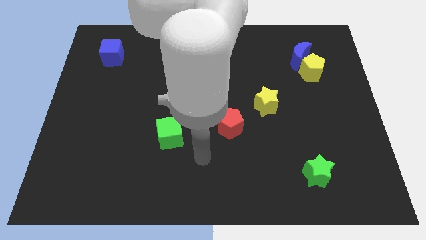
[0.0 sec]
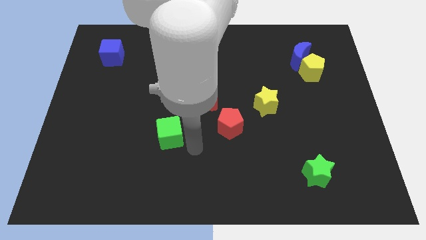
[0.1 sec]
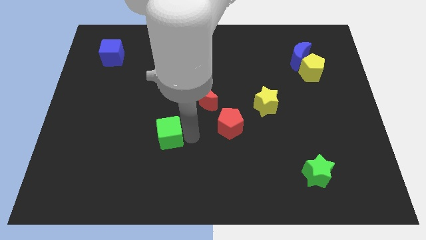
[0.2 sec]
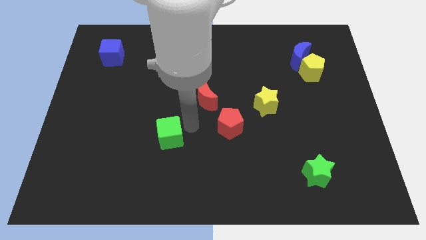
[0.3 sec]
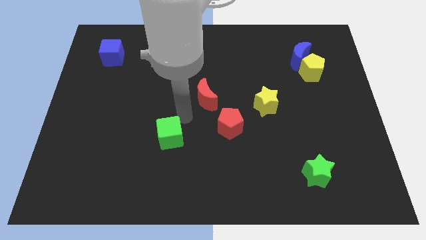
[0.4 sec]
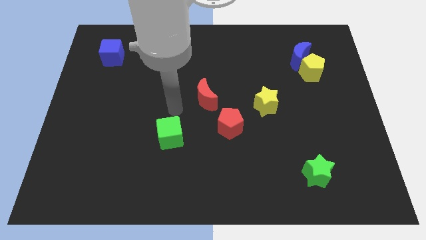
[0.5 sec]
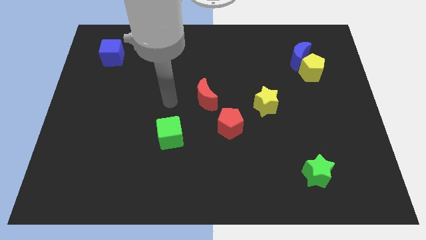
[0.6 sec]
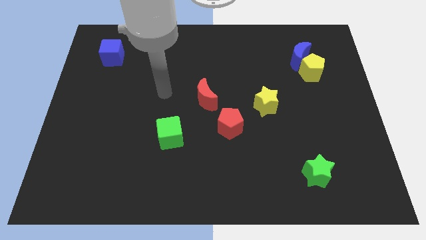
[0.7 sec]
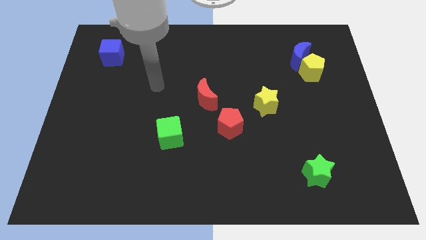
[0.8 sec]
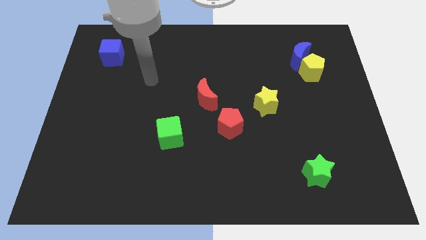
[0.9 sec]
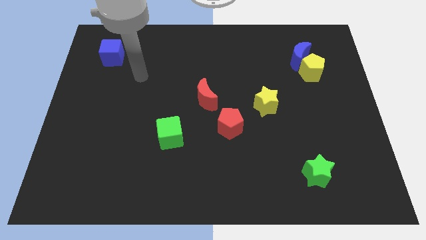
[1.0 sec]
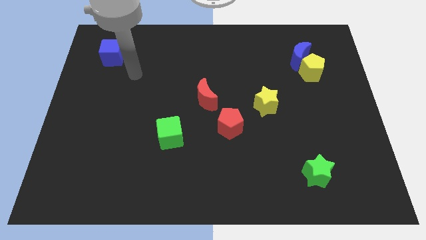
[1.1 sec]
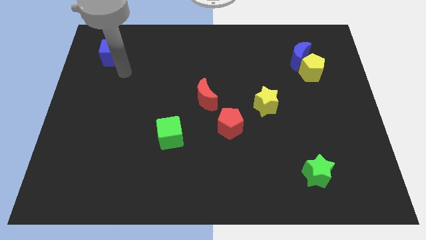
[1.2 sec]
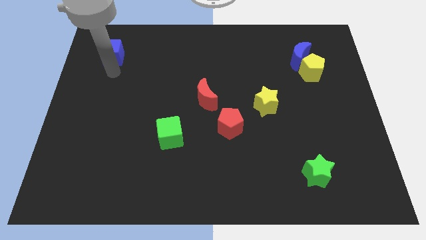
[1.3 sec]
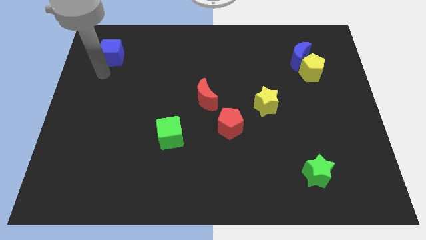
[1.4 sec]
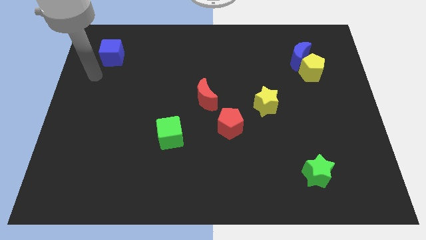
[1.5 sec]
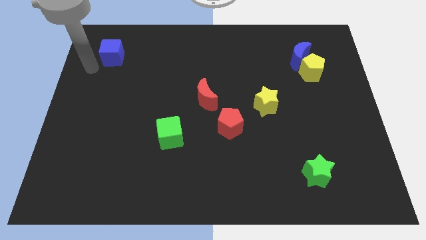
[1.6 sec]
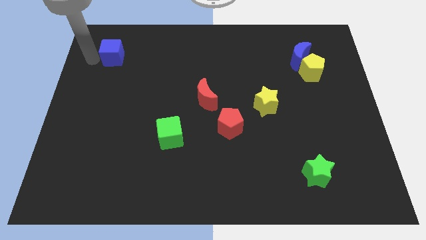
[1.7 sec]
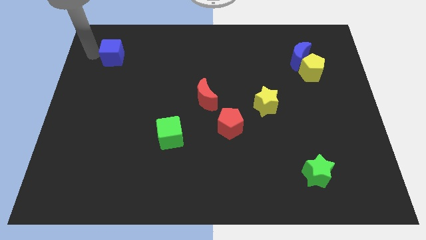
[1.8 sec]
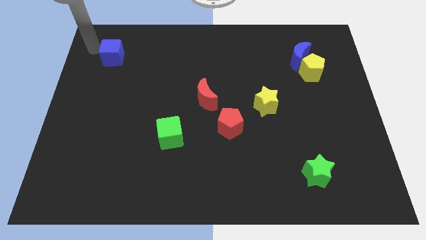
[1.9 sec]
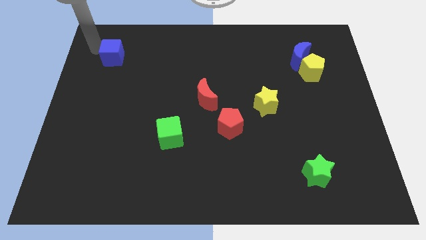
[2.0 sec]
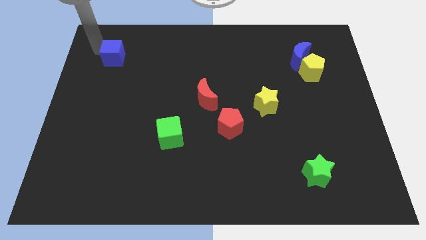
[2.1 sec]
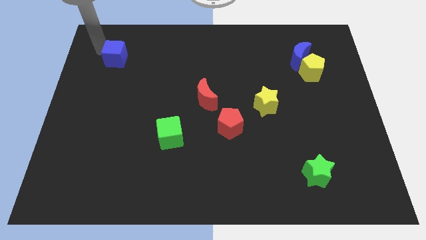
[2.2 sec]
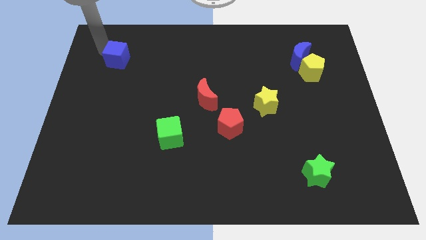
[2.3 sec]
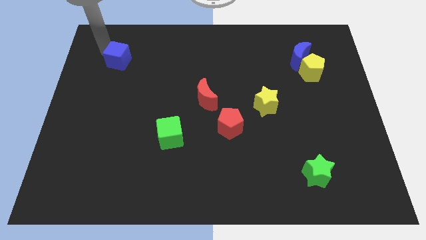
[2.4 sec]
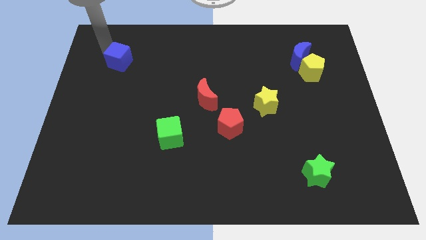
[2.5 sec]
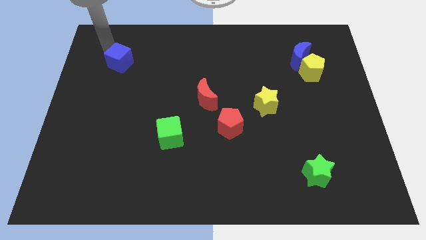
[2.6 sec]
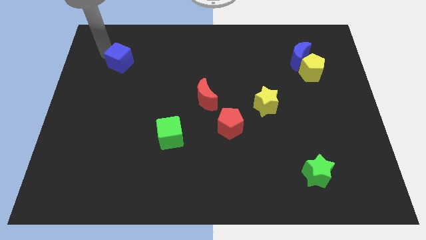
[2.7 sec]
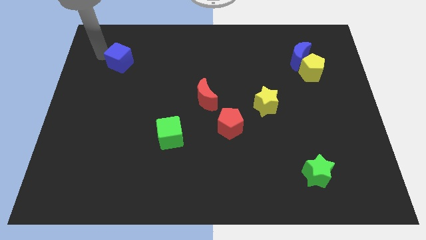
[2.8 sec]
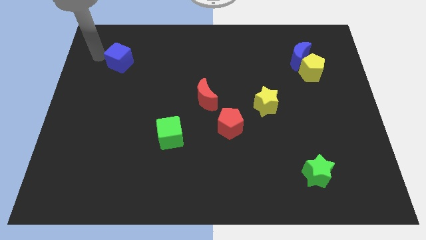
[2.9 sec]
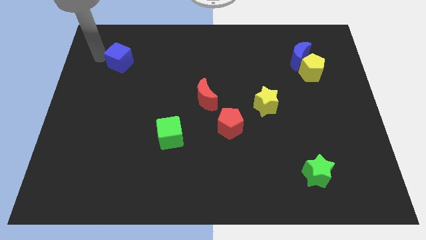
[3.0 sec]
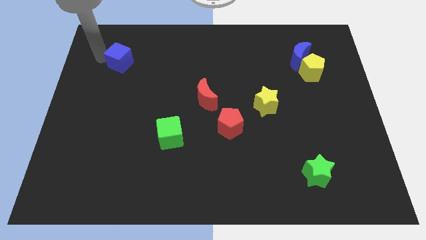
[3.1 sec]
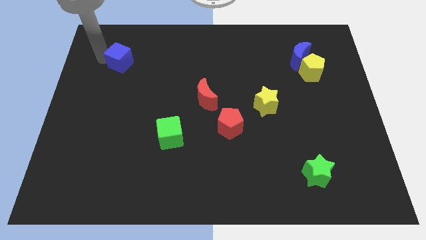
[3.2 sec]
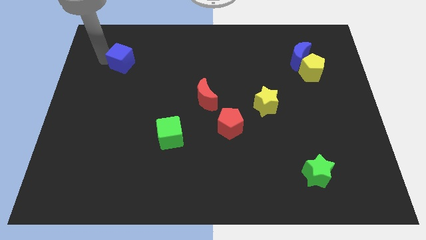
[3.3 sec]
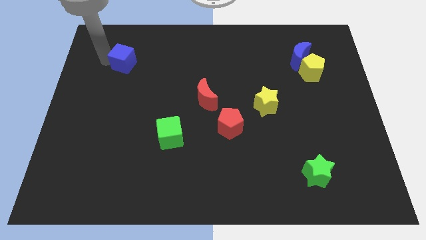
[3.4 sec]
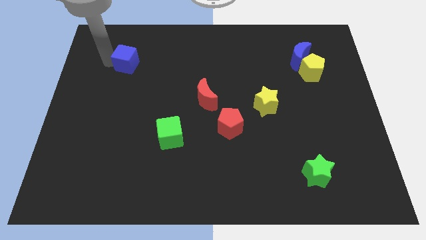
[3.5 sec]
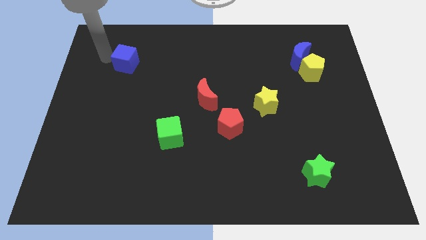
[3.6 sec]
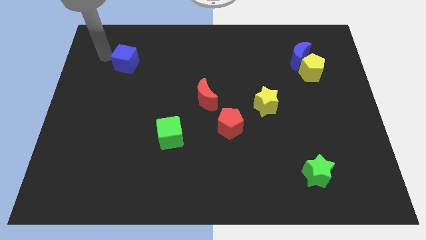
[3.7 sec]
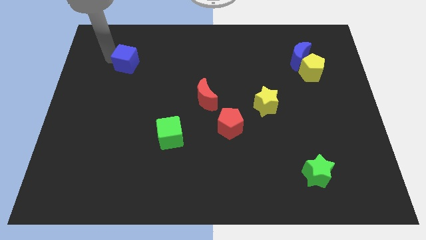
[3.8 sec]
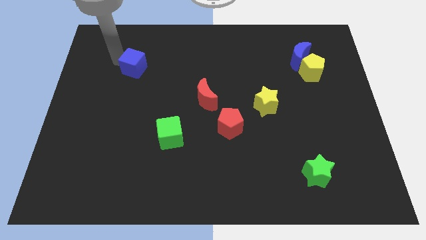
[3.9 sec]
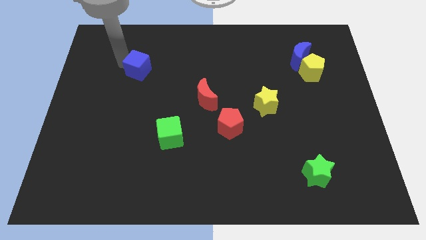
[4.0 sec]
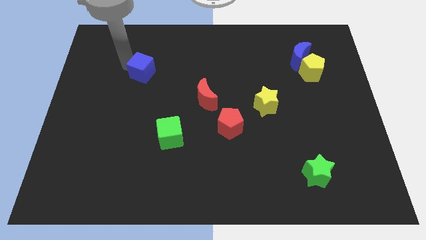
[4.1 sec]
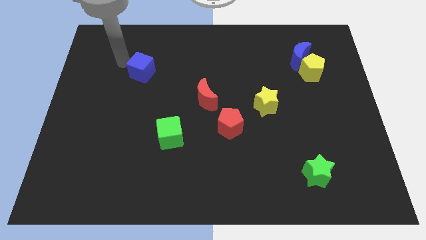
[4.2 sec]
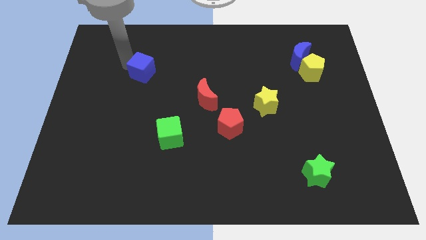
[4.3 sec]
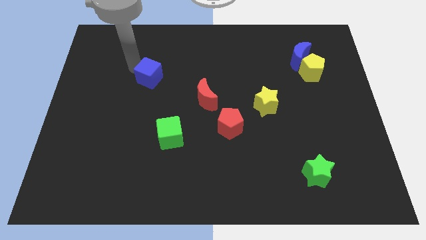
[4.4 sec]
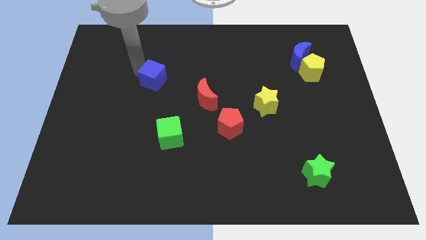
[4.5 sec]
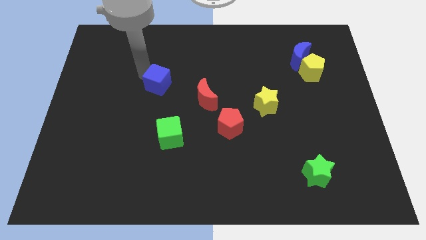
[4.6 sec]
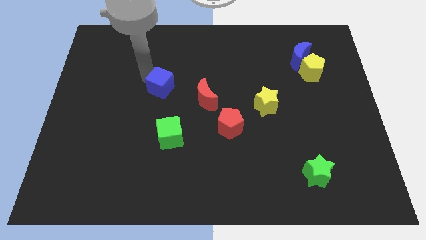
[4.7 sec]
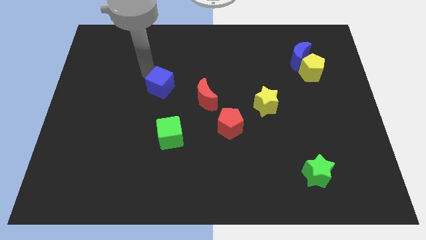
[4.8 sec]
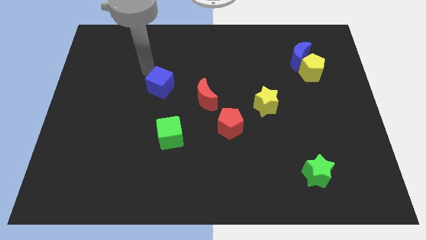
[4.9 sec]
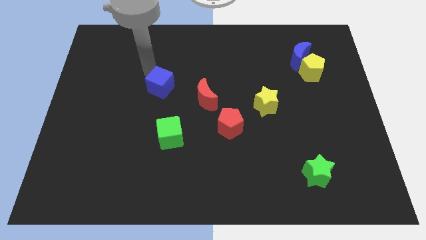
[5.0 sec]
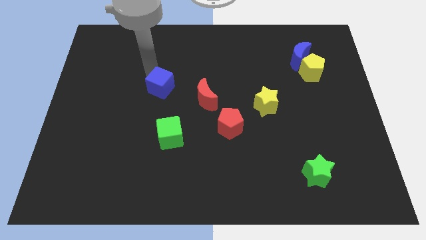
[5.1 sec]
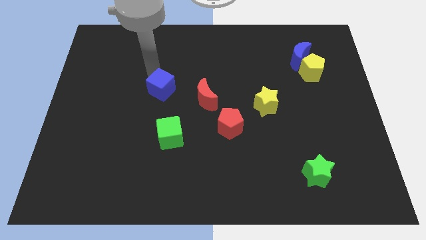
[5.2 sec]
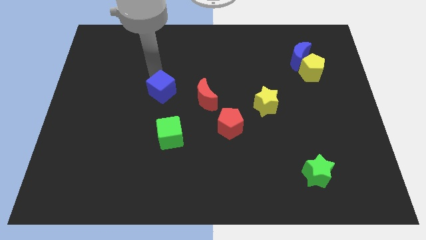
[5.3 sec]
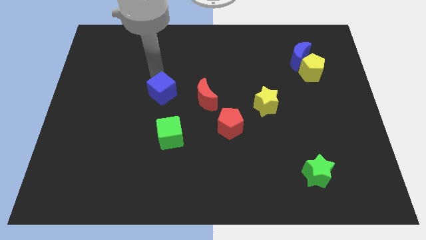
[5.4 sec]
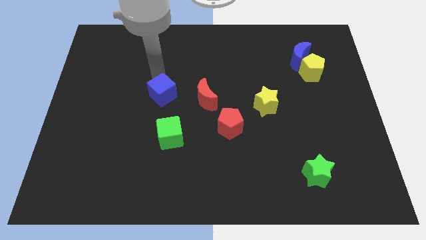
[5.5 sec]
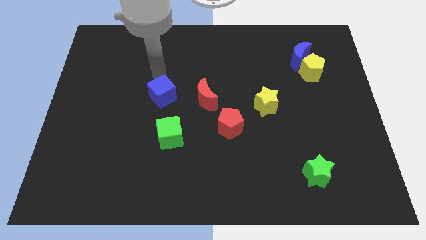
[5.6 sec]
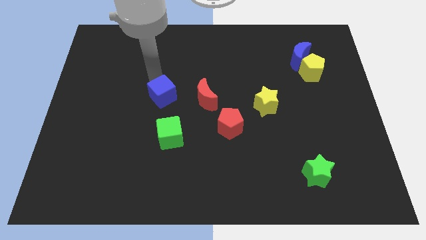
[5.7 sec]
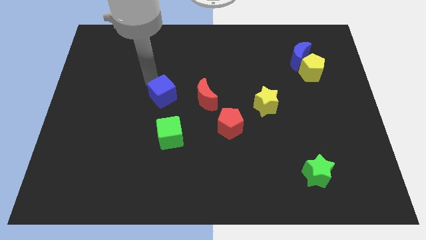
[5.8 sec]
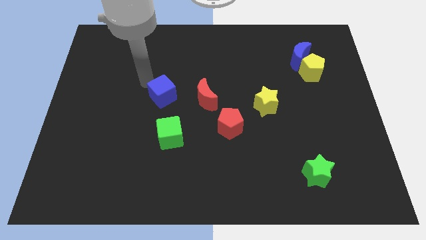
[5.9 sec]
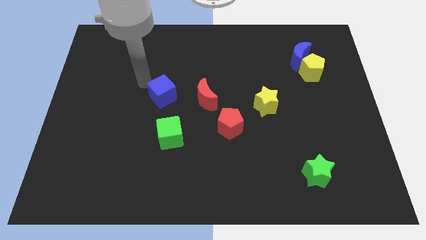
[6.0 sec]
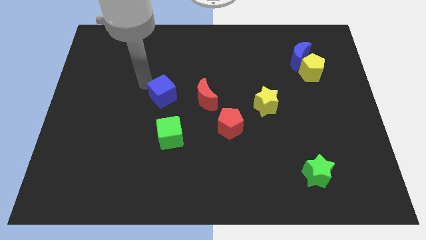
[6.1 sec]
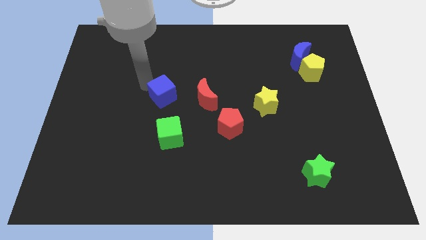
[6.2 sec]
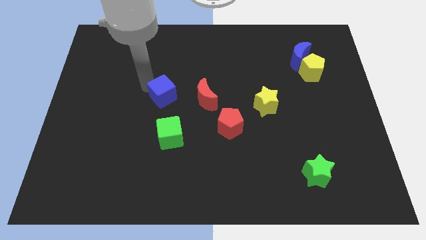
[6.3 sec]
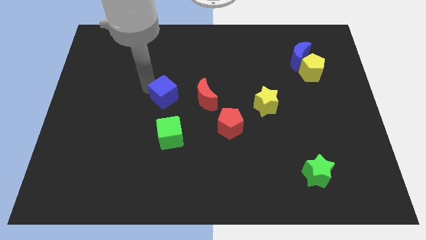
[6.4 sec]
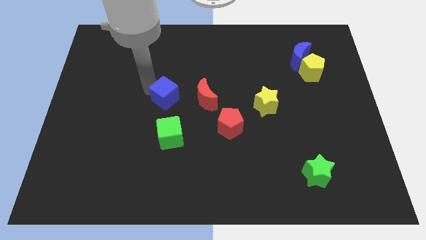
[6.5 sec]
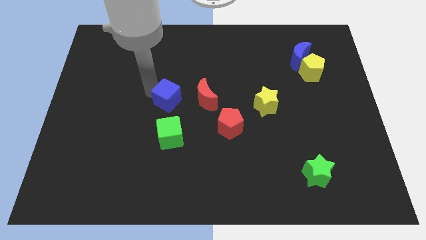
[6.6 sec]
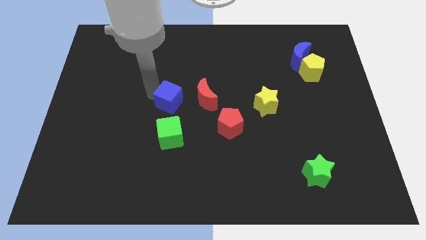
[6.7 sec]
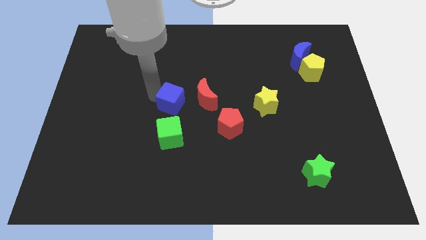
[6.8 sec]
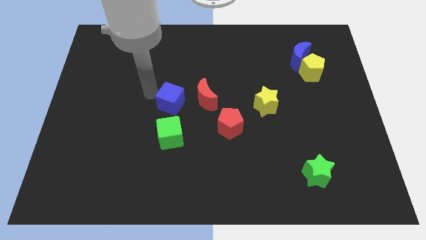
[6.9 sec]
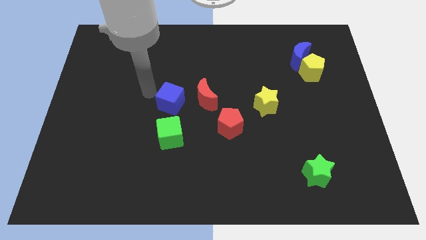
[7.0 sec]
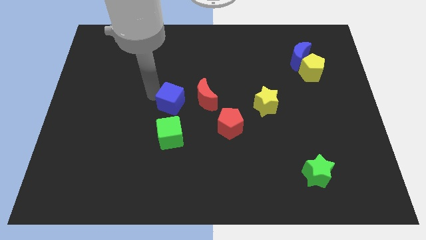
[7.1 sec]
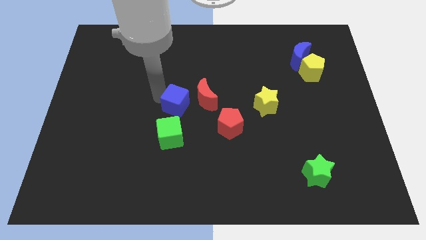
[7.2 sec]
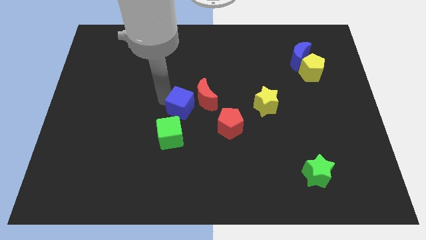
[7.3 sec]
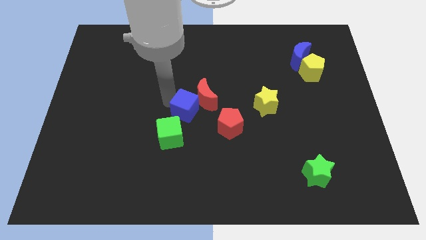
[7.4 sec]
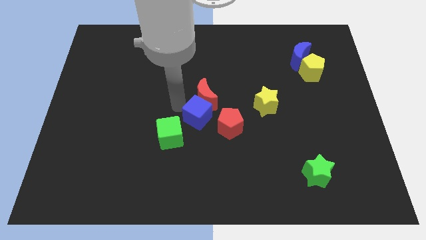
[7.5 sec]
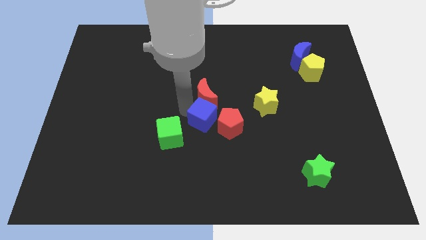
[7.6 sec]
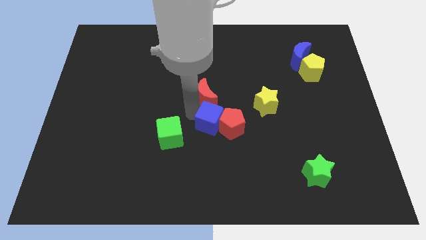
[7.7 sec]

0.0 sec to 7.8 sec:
put the blue cube next to the red pentagon
